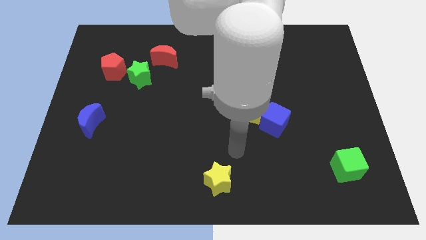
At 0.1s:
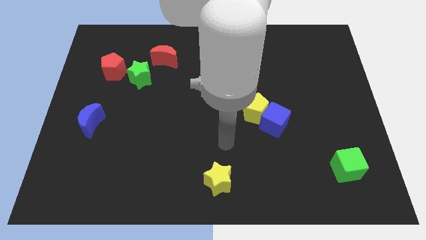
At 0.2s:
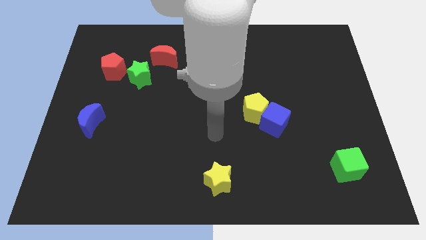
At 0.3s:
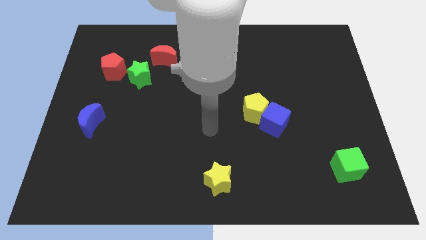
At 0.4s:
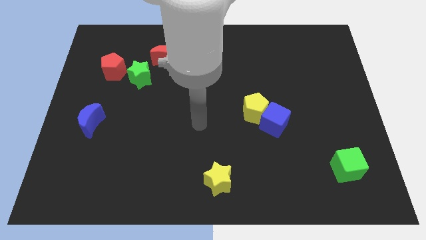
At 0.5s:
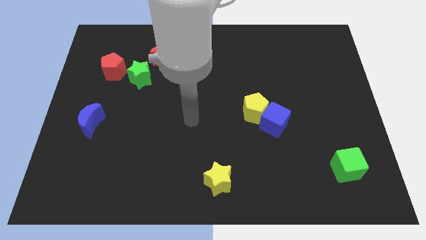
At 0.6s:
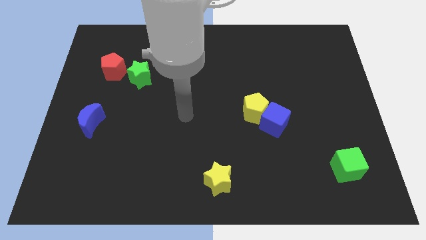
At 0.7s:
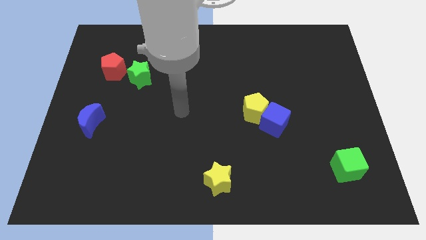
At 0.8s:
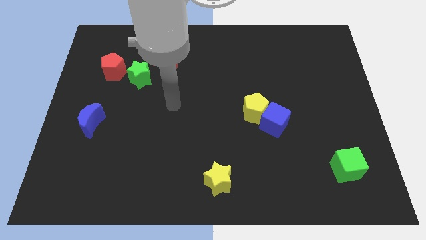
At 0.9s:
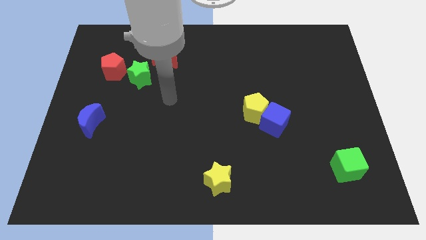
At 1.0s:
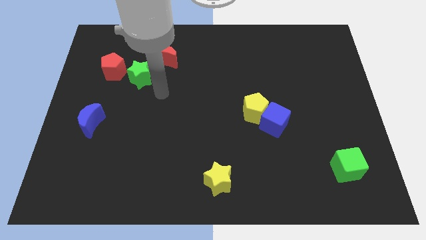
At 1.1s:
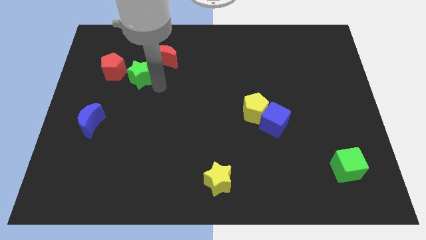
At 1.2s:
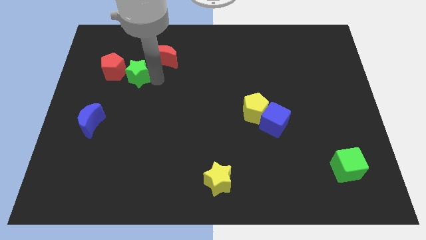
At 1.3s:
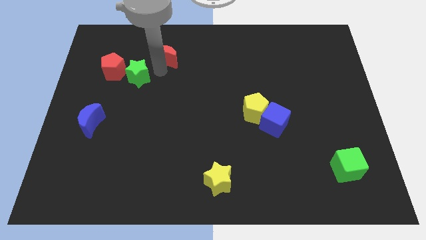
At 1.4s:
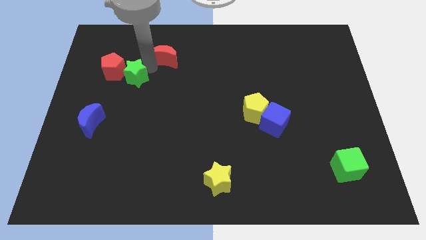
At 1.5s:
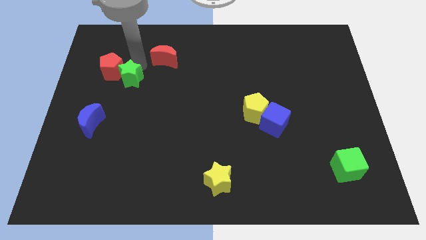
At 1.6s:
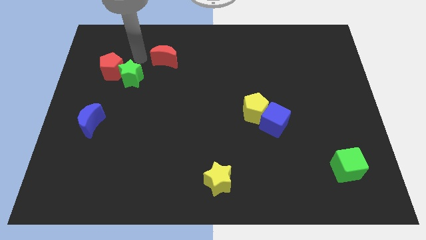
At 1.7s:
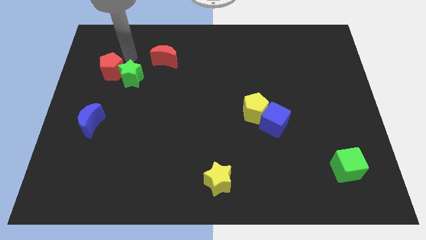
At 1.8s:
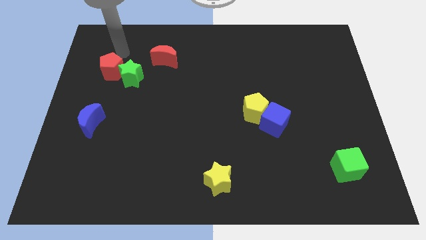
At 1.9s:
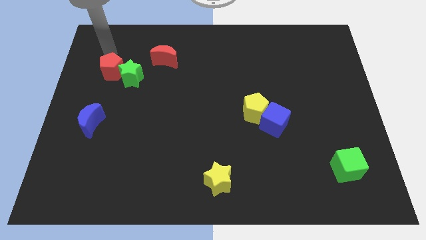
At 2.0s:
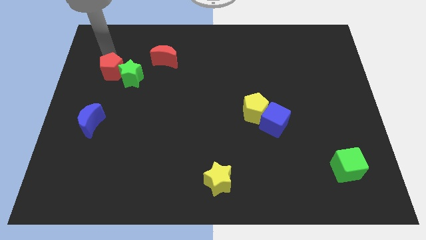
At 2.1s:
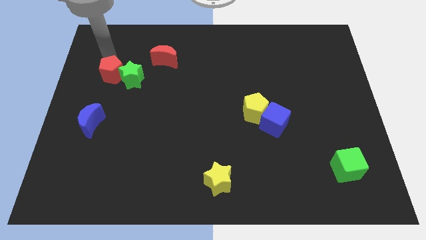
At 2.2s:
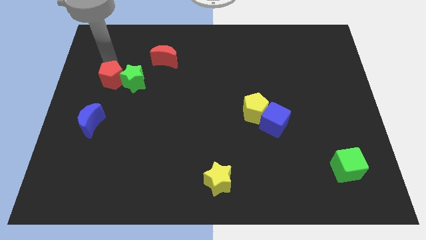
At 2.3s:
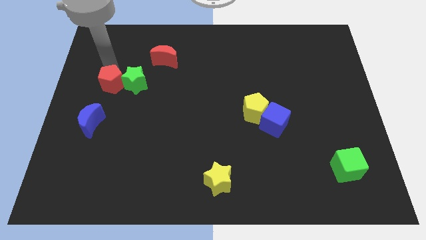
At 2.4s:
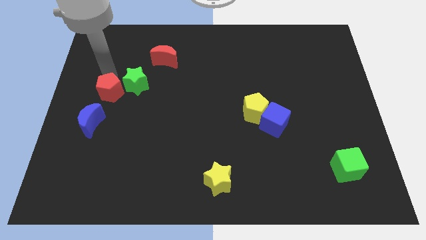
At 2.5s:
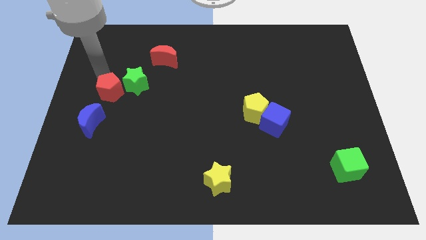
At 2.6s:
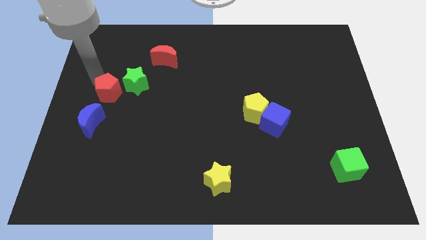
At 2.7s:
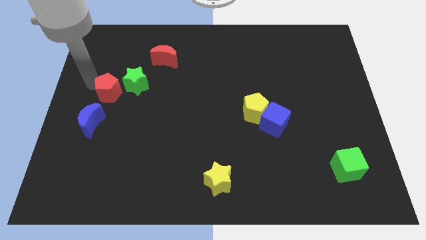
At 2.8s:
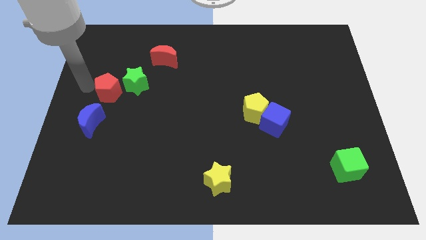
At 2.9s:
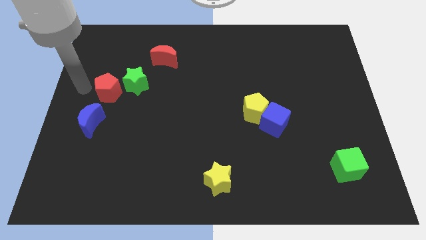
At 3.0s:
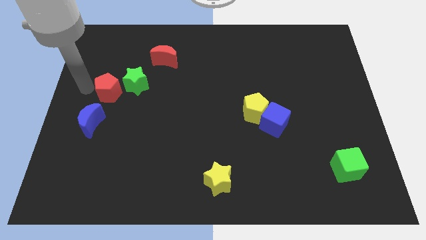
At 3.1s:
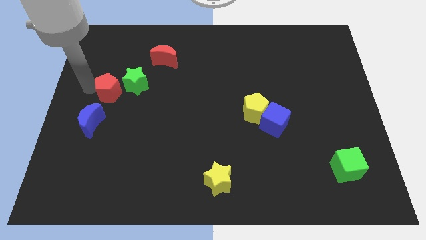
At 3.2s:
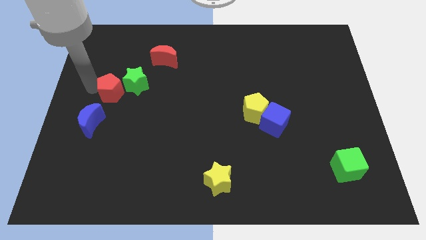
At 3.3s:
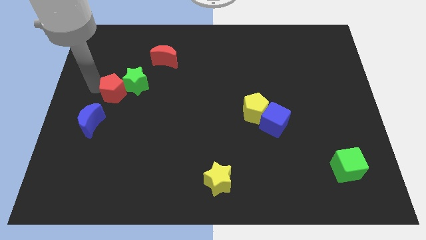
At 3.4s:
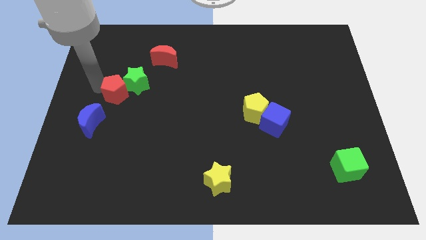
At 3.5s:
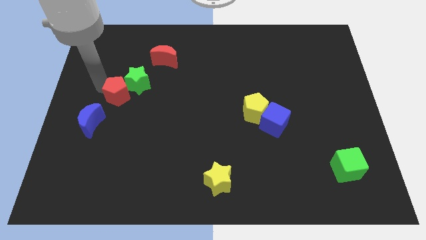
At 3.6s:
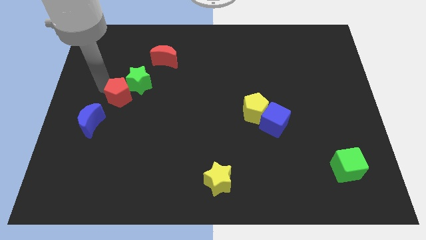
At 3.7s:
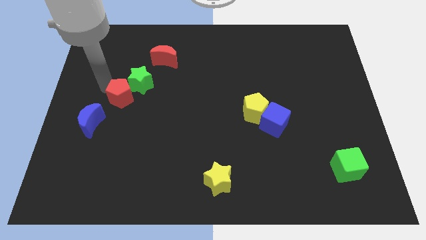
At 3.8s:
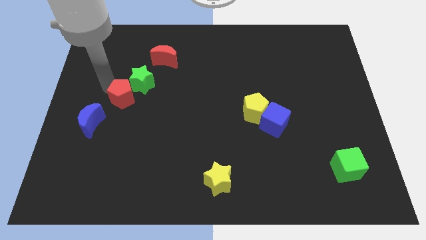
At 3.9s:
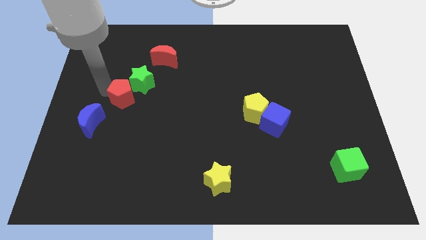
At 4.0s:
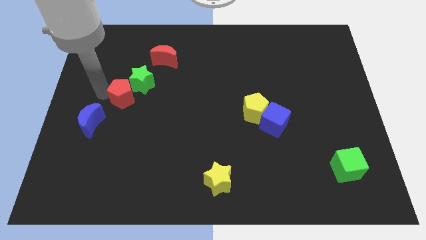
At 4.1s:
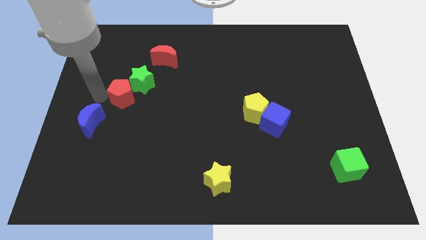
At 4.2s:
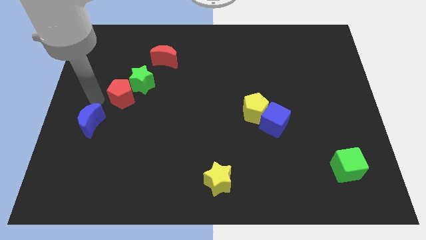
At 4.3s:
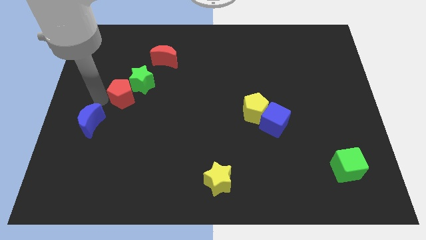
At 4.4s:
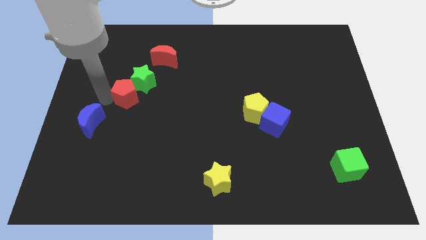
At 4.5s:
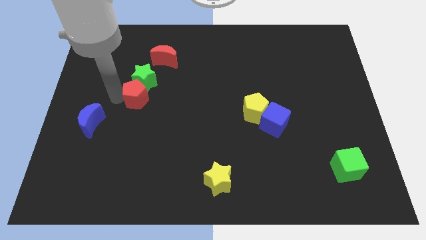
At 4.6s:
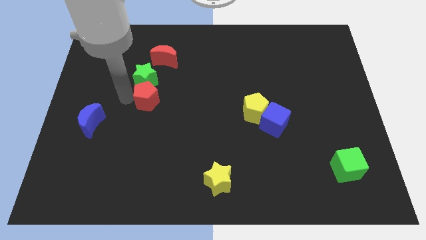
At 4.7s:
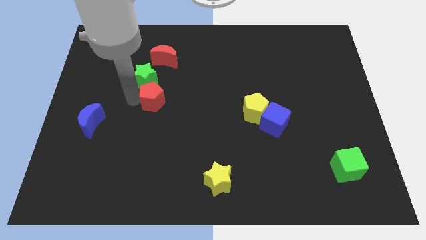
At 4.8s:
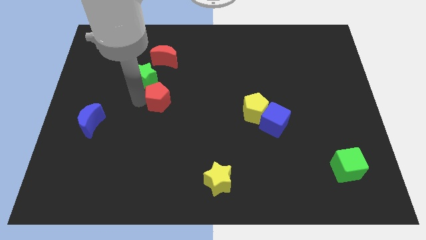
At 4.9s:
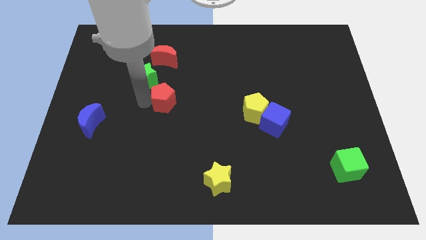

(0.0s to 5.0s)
put the red pentagon to the center

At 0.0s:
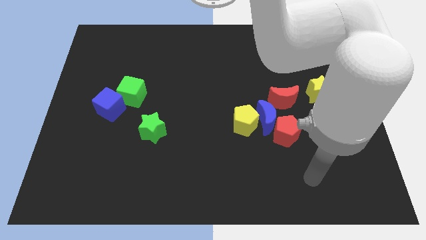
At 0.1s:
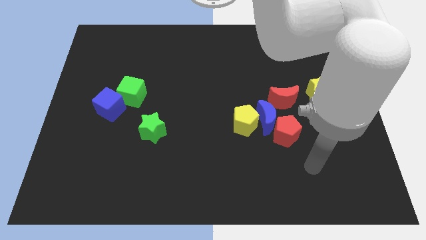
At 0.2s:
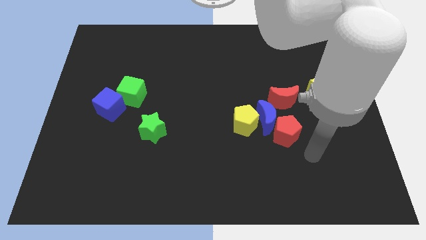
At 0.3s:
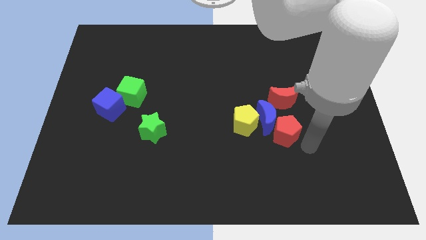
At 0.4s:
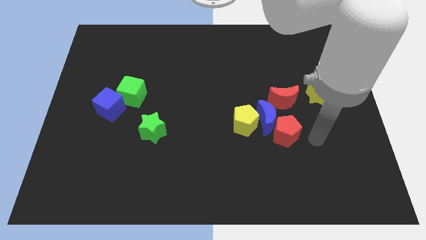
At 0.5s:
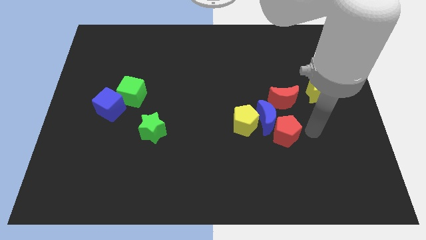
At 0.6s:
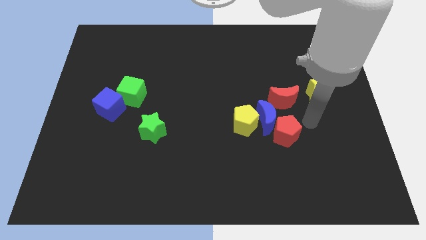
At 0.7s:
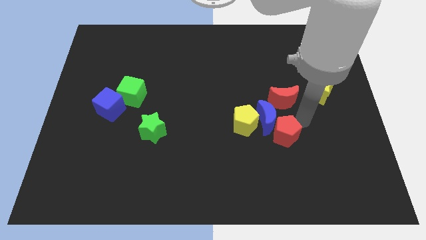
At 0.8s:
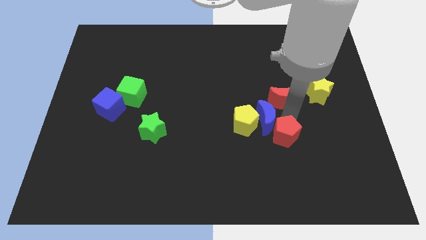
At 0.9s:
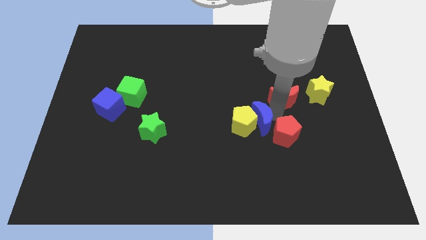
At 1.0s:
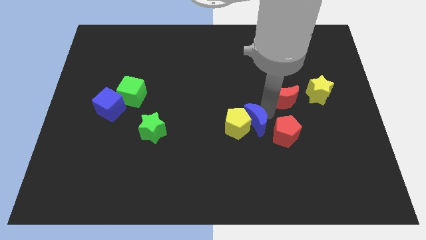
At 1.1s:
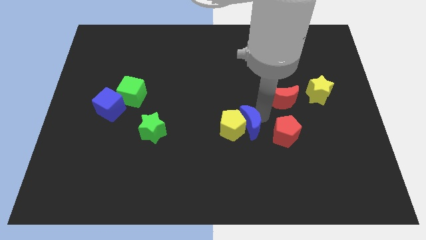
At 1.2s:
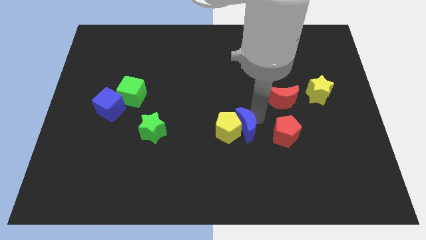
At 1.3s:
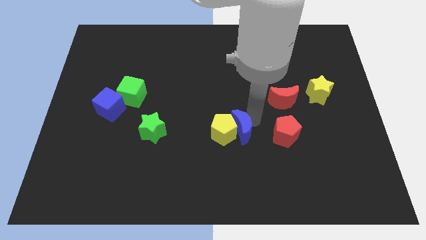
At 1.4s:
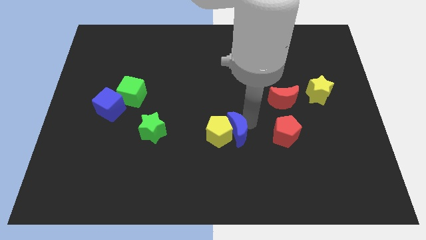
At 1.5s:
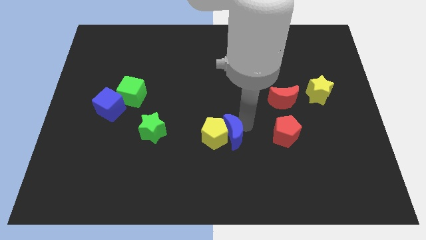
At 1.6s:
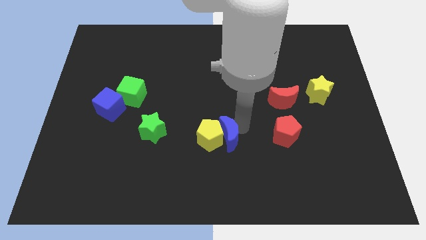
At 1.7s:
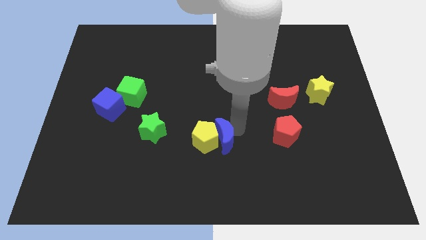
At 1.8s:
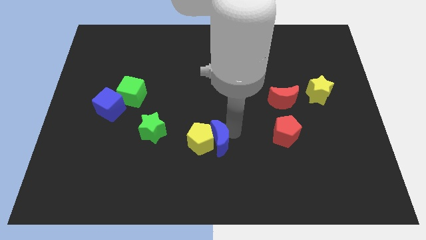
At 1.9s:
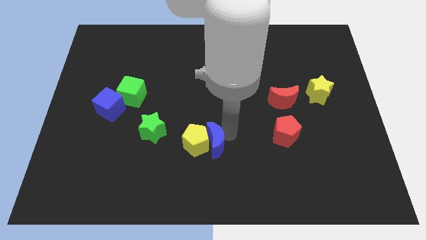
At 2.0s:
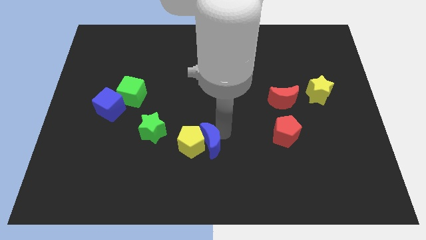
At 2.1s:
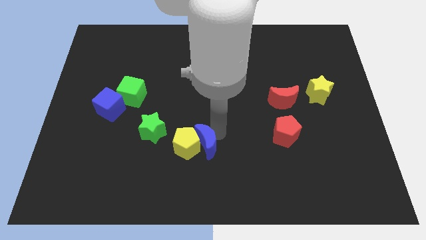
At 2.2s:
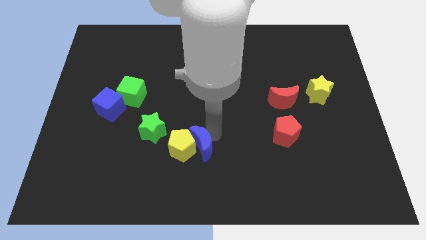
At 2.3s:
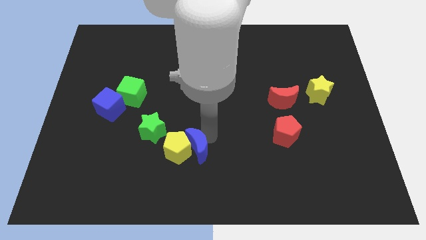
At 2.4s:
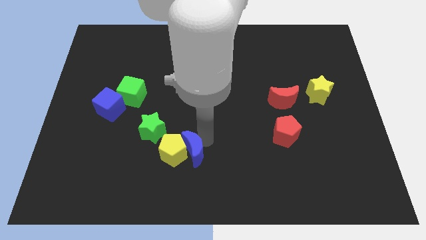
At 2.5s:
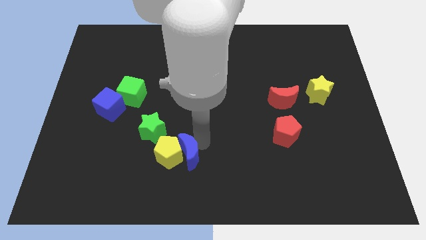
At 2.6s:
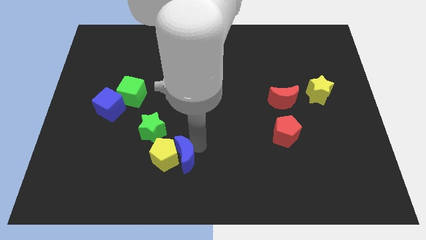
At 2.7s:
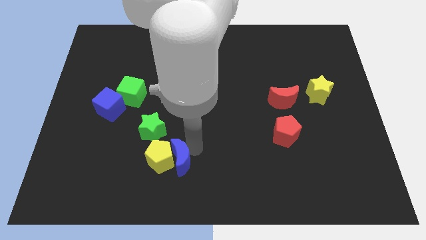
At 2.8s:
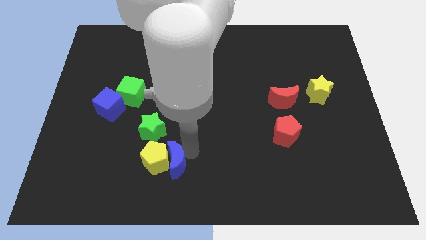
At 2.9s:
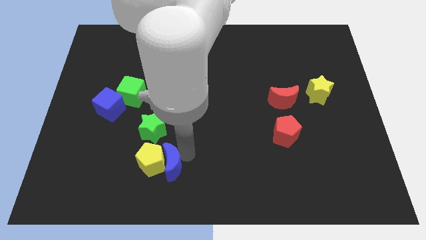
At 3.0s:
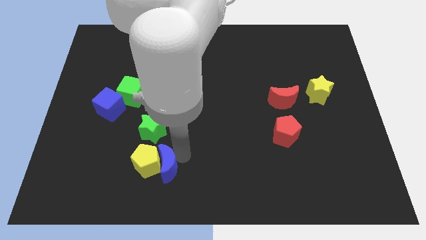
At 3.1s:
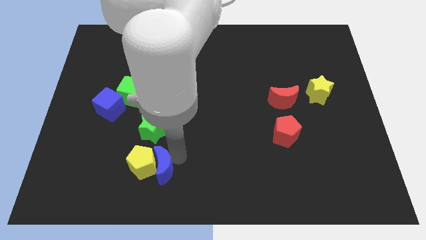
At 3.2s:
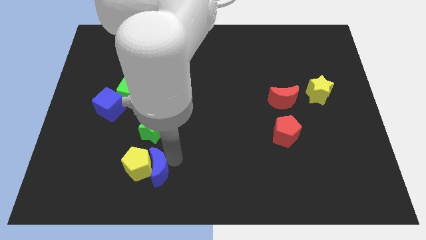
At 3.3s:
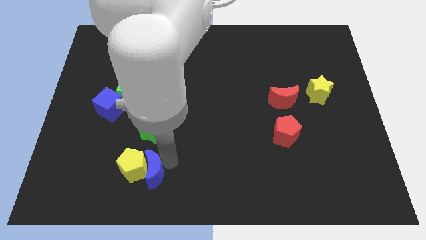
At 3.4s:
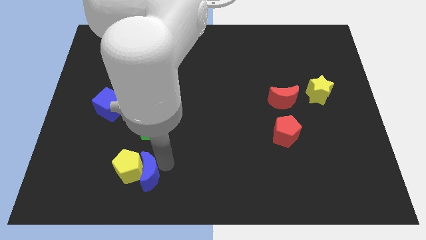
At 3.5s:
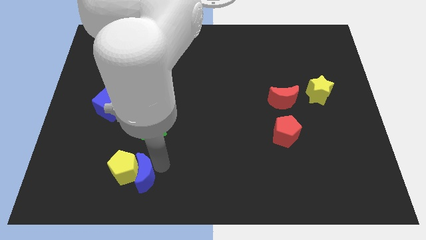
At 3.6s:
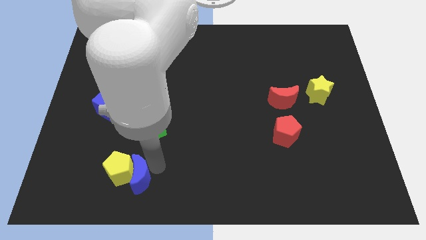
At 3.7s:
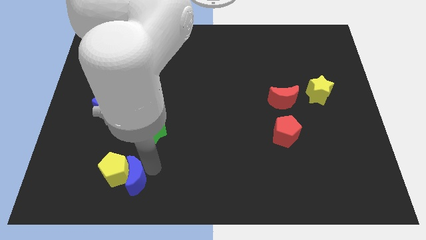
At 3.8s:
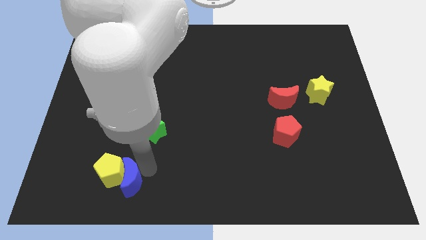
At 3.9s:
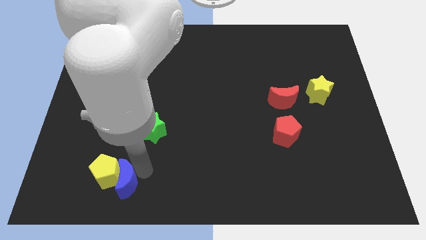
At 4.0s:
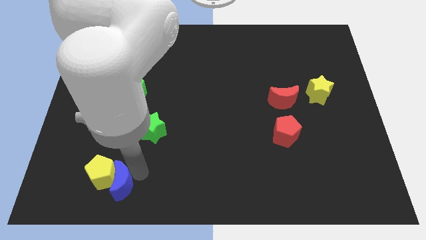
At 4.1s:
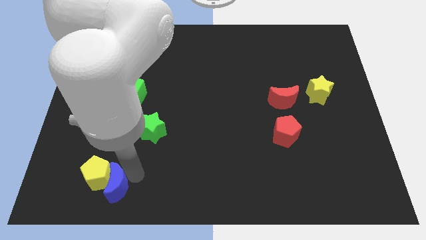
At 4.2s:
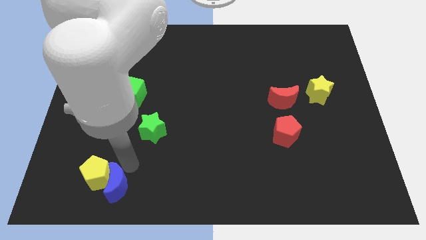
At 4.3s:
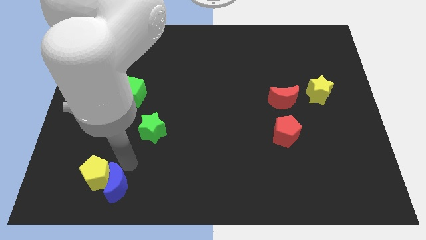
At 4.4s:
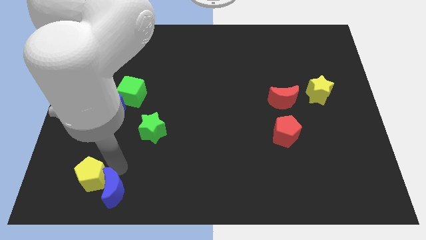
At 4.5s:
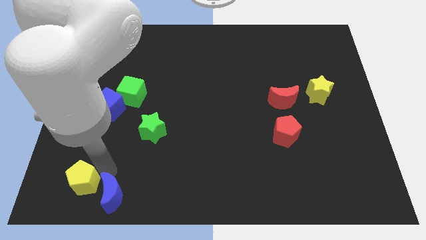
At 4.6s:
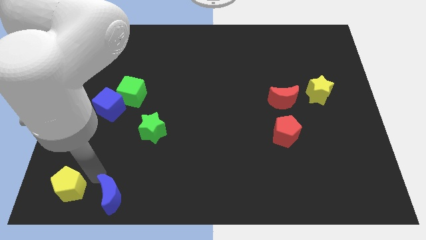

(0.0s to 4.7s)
push the yellow pentagon to the bottom left corner
